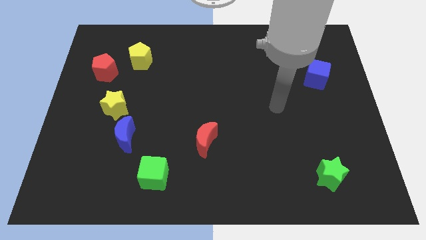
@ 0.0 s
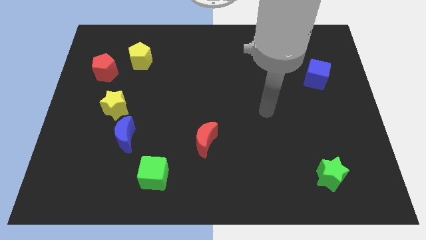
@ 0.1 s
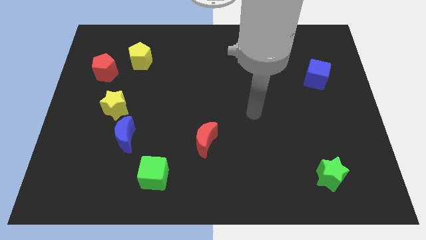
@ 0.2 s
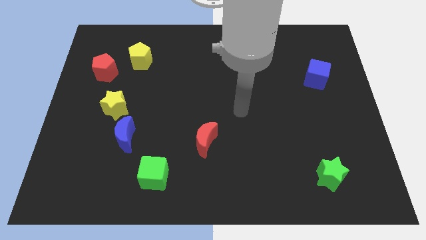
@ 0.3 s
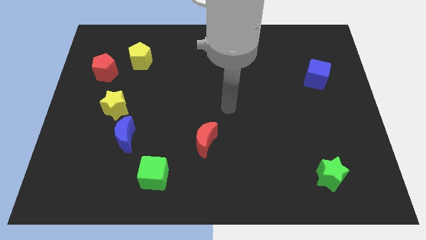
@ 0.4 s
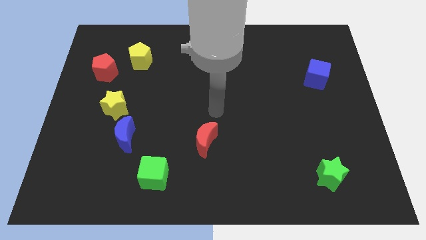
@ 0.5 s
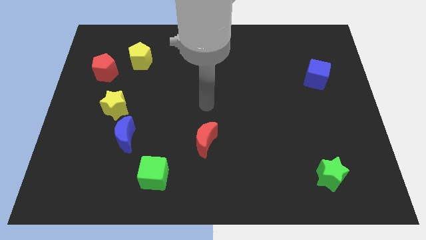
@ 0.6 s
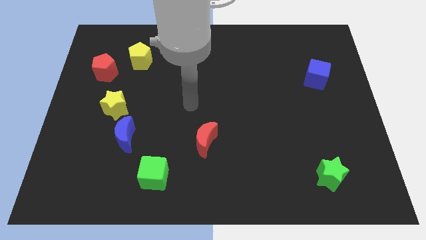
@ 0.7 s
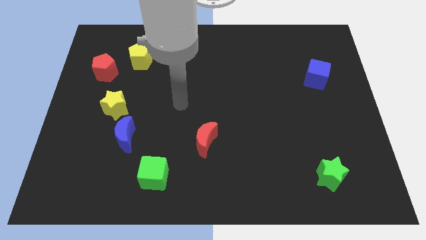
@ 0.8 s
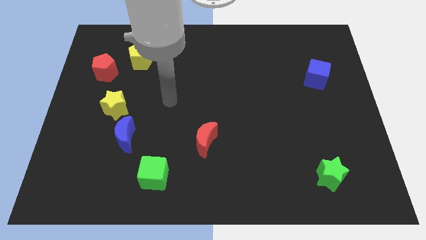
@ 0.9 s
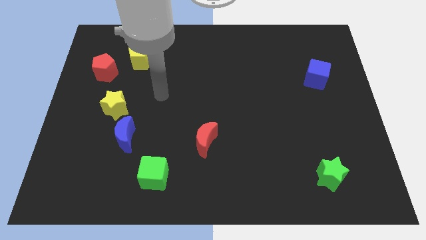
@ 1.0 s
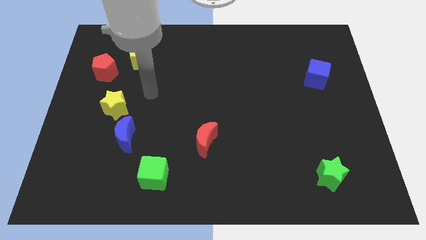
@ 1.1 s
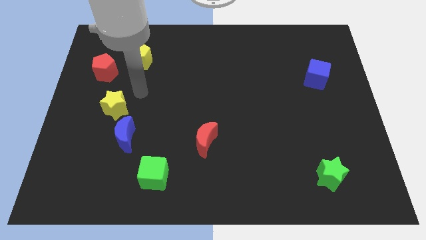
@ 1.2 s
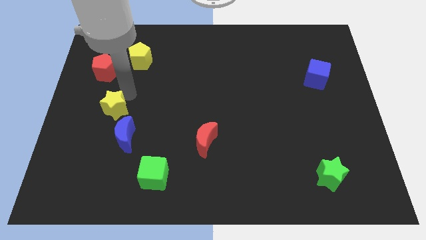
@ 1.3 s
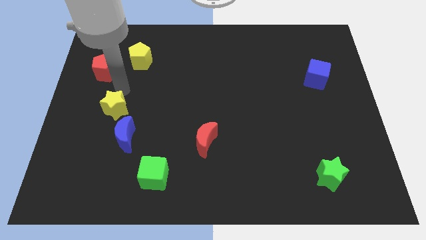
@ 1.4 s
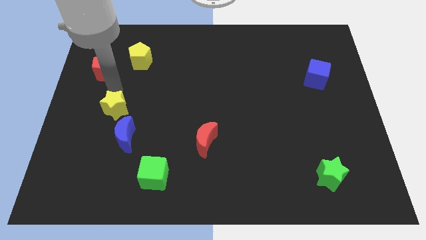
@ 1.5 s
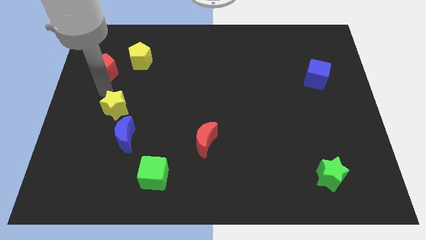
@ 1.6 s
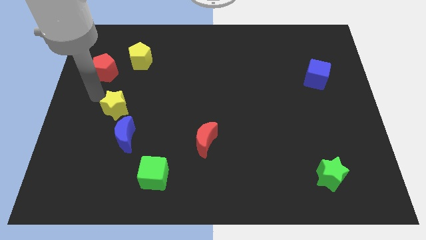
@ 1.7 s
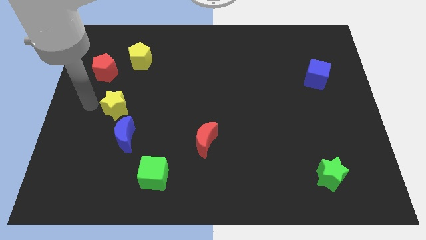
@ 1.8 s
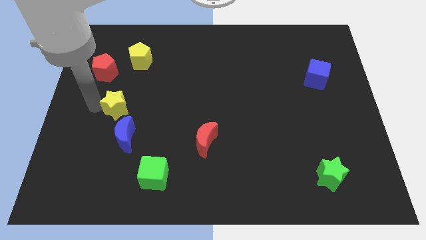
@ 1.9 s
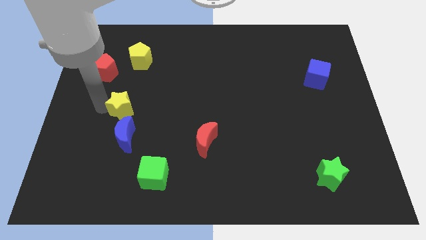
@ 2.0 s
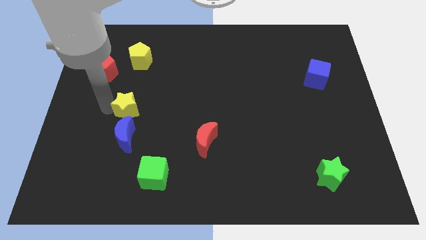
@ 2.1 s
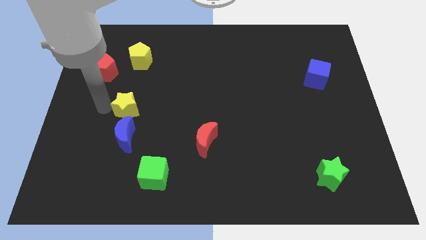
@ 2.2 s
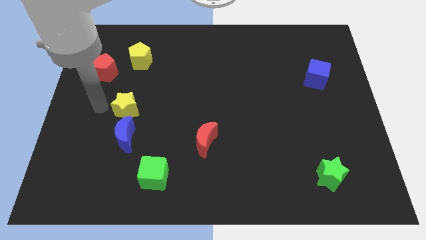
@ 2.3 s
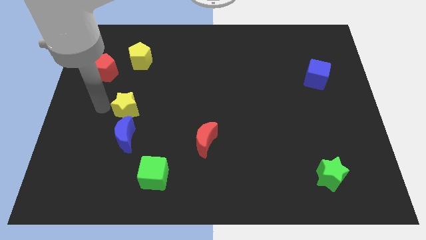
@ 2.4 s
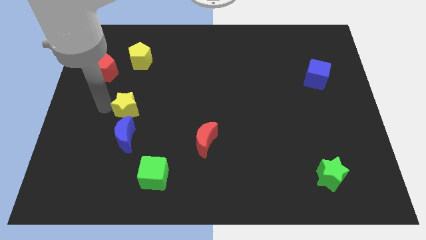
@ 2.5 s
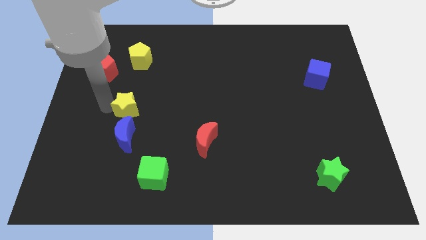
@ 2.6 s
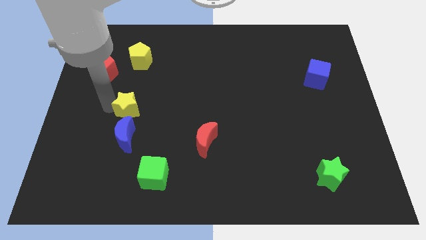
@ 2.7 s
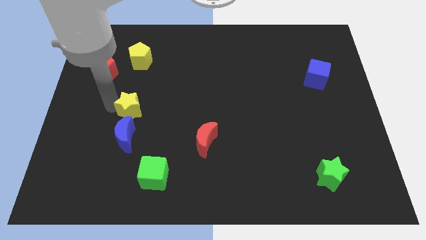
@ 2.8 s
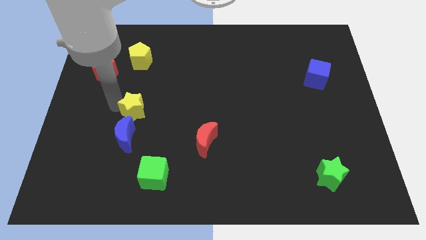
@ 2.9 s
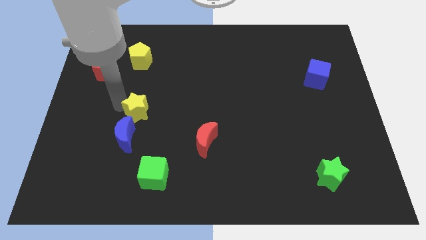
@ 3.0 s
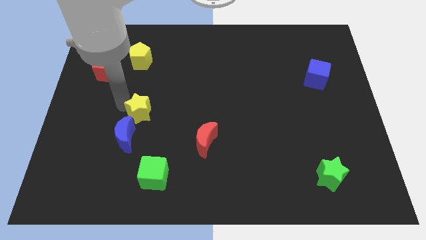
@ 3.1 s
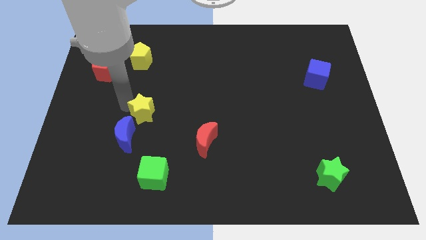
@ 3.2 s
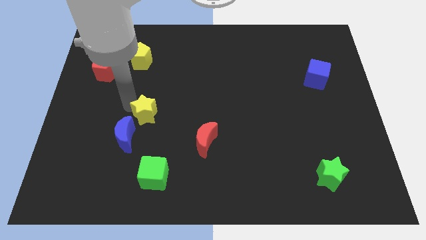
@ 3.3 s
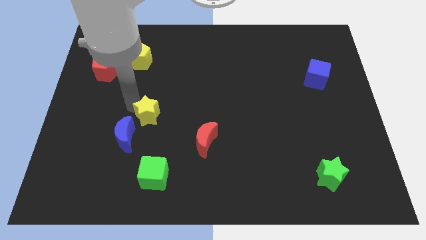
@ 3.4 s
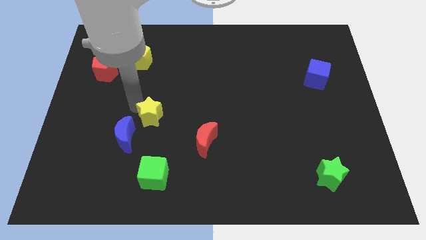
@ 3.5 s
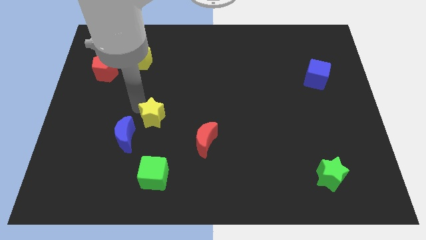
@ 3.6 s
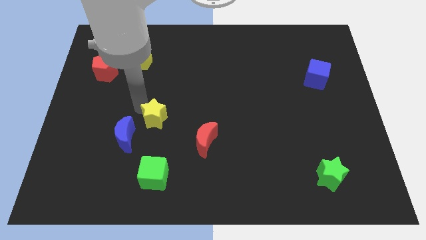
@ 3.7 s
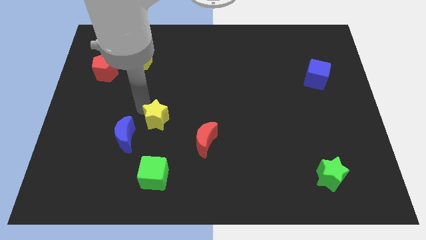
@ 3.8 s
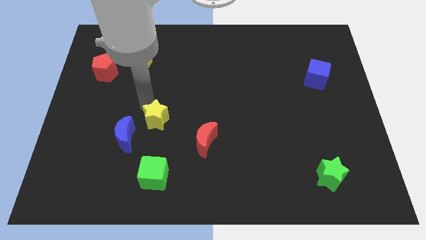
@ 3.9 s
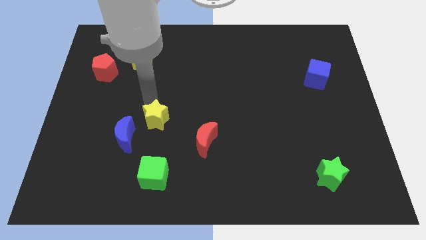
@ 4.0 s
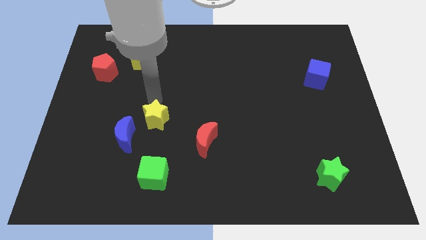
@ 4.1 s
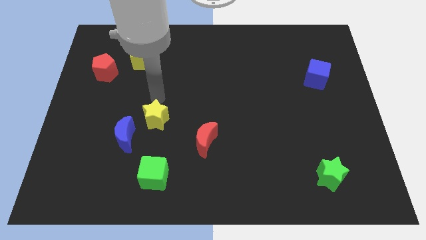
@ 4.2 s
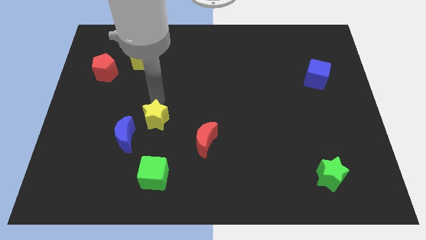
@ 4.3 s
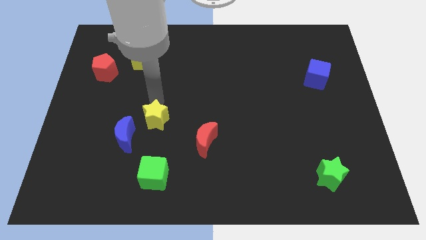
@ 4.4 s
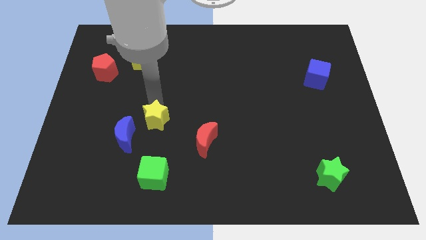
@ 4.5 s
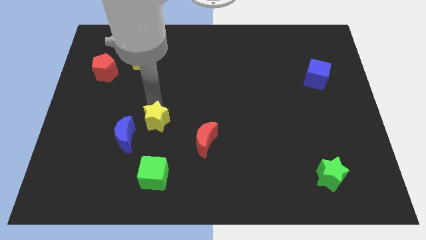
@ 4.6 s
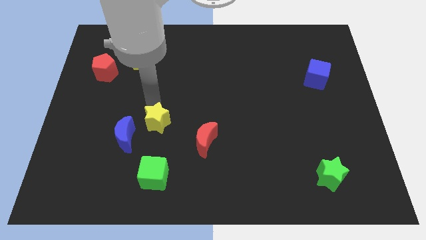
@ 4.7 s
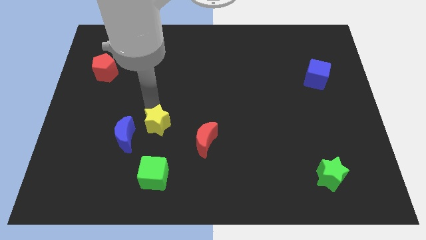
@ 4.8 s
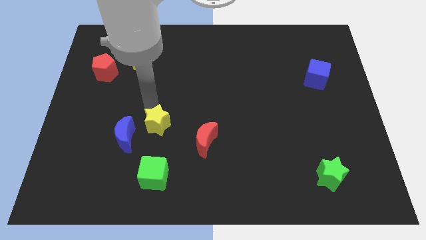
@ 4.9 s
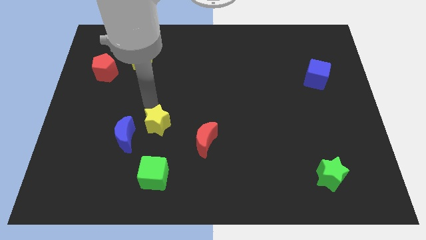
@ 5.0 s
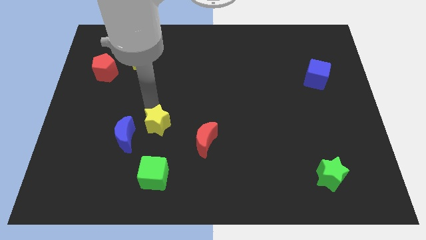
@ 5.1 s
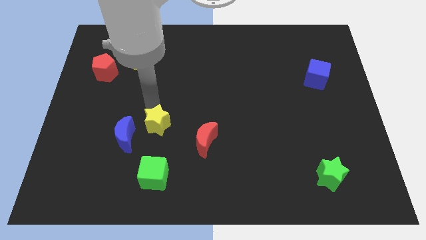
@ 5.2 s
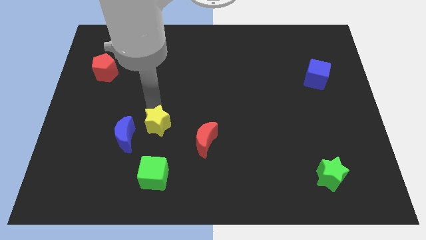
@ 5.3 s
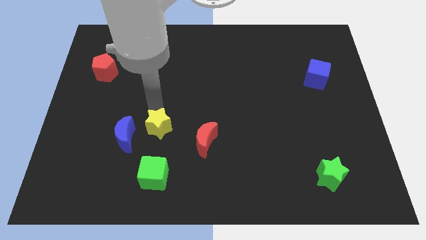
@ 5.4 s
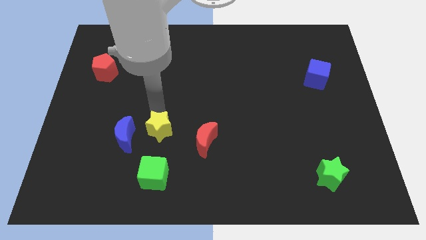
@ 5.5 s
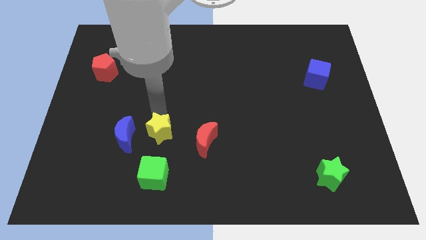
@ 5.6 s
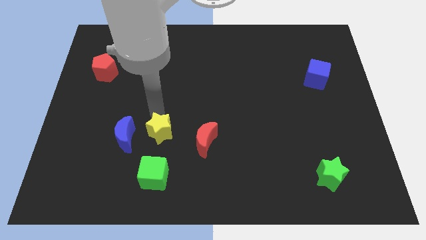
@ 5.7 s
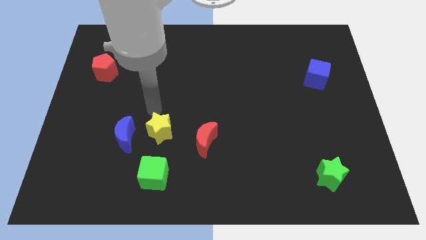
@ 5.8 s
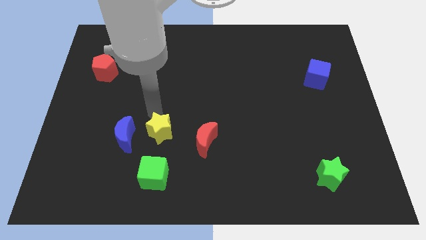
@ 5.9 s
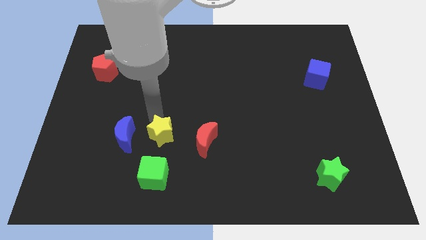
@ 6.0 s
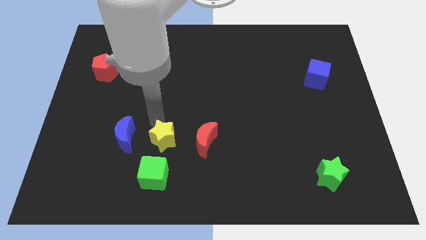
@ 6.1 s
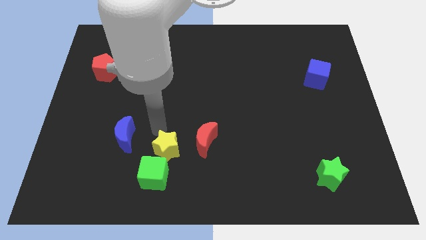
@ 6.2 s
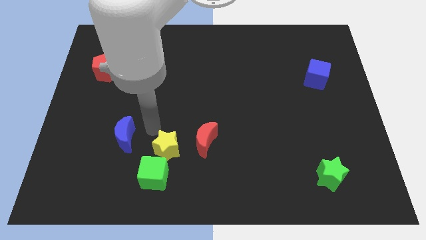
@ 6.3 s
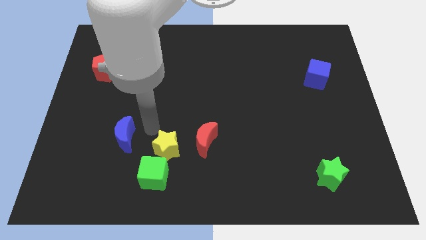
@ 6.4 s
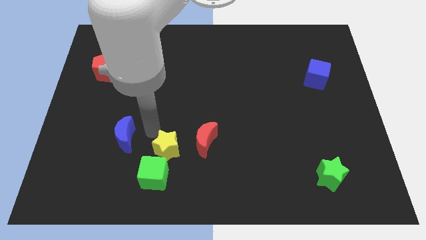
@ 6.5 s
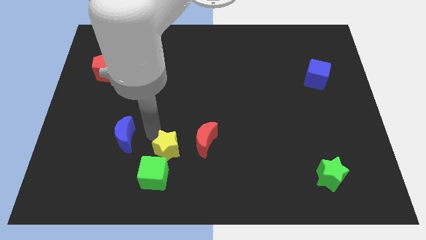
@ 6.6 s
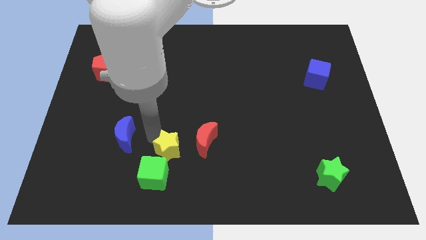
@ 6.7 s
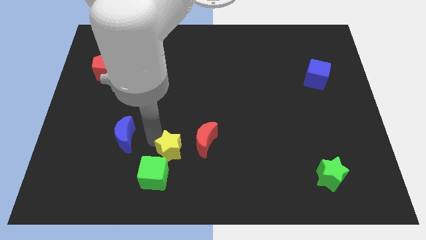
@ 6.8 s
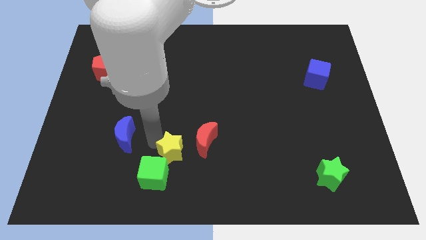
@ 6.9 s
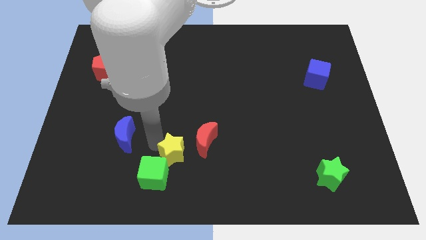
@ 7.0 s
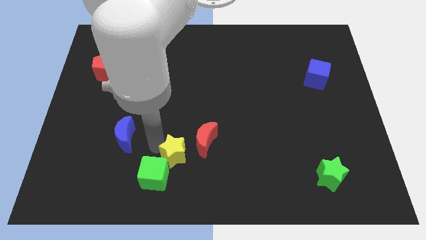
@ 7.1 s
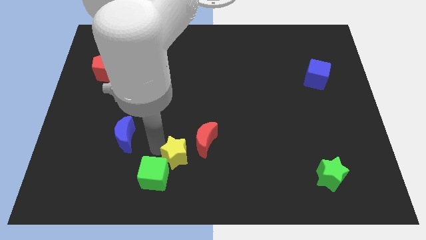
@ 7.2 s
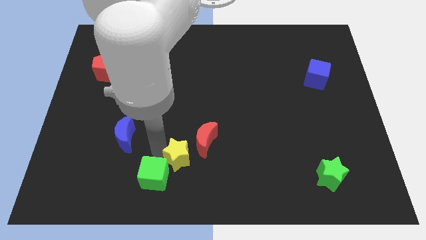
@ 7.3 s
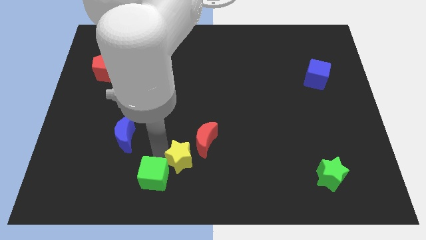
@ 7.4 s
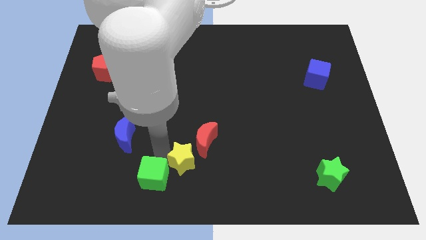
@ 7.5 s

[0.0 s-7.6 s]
slide the yellow star to the bottom
